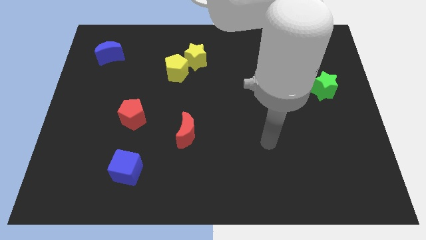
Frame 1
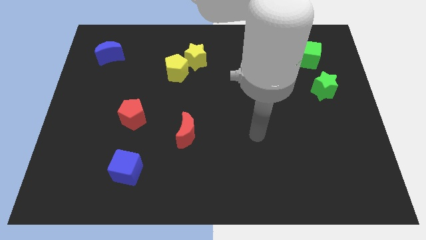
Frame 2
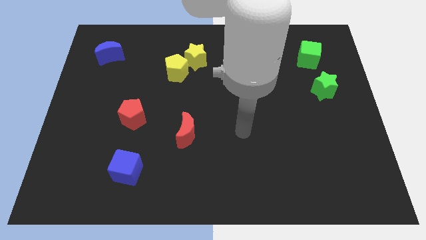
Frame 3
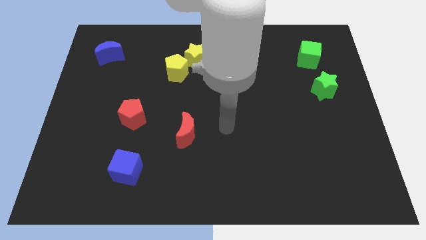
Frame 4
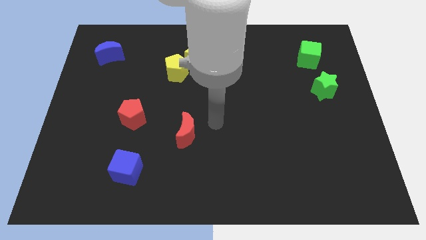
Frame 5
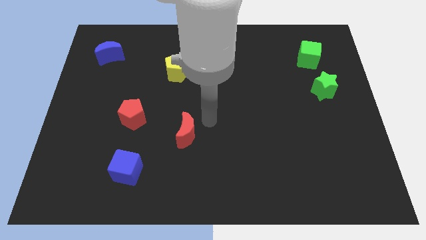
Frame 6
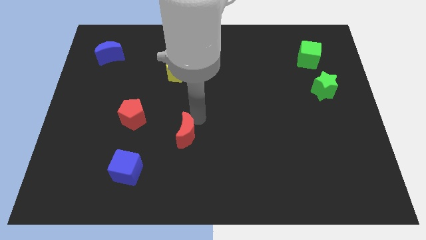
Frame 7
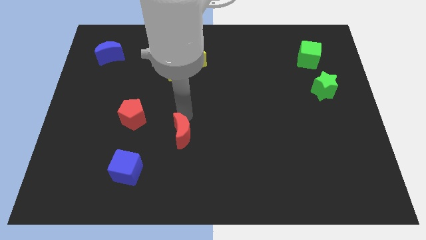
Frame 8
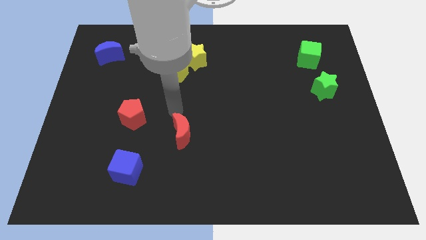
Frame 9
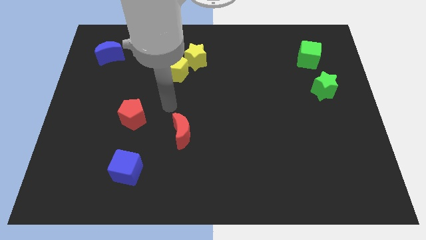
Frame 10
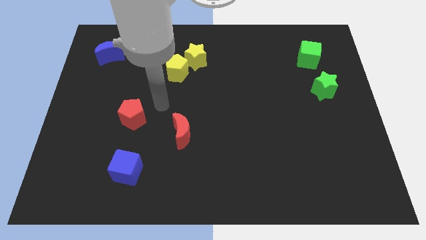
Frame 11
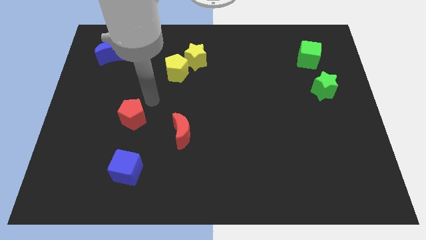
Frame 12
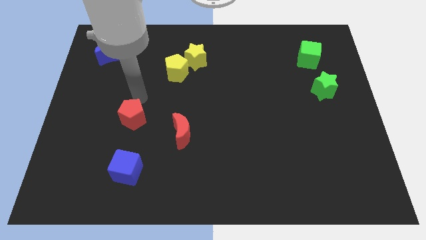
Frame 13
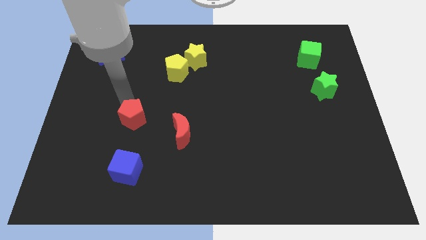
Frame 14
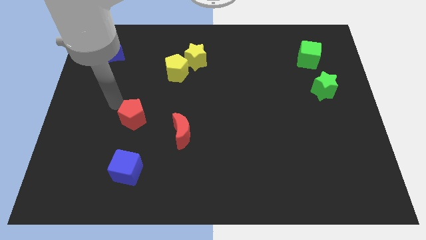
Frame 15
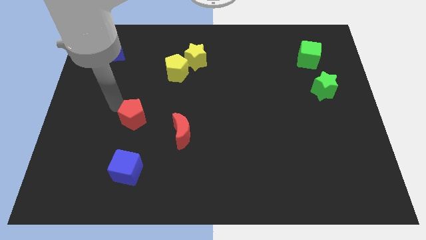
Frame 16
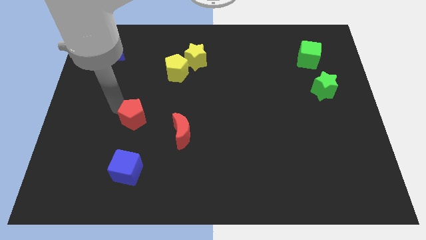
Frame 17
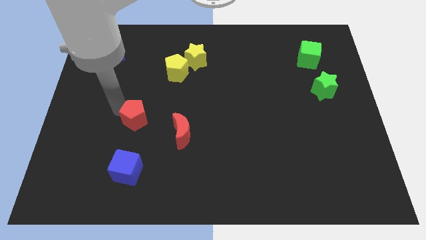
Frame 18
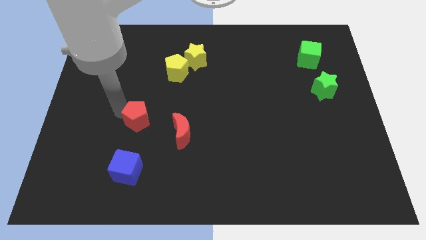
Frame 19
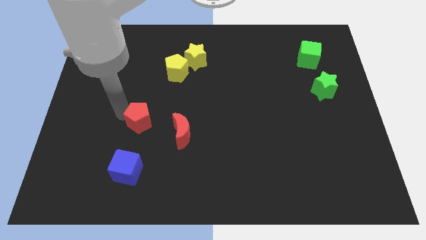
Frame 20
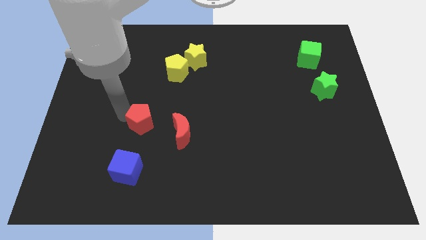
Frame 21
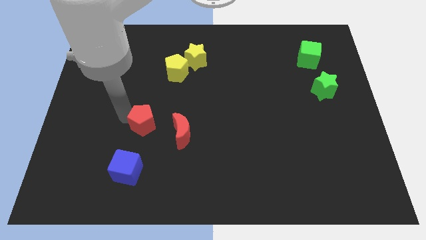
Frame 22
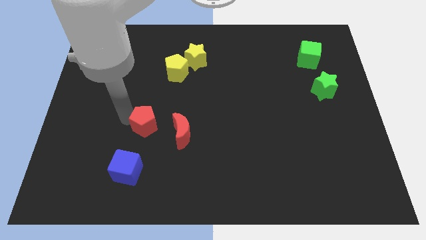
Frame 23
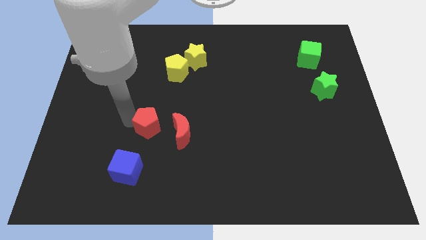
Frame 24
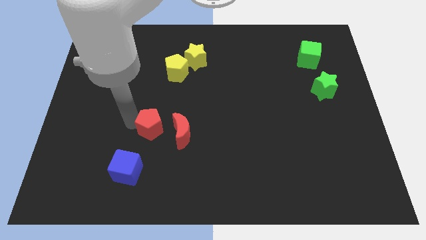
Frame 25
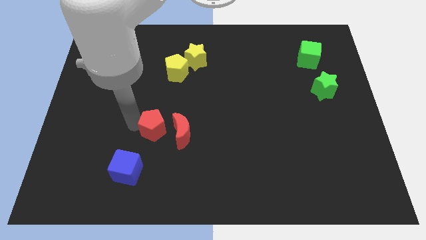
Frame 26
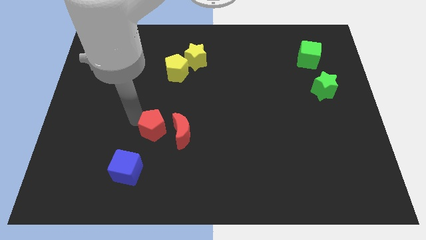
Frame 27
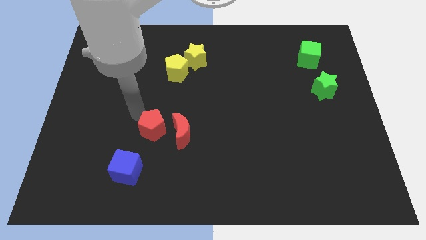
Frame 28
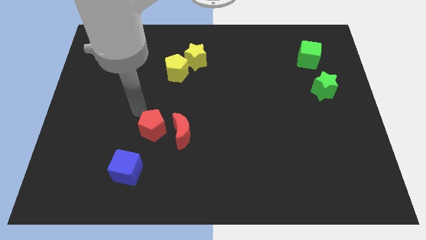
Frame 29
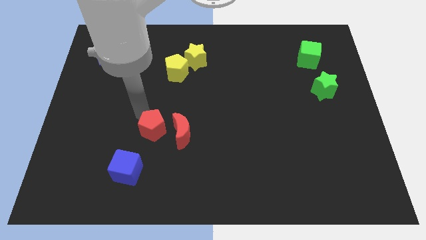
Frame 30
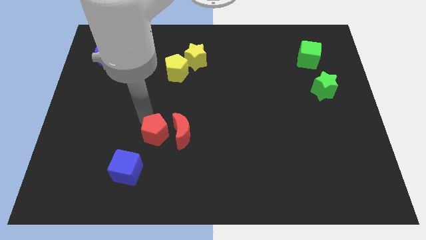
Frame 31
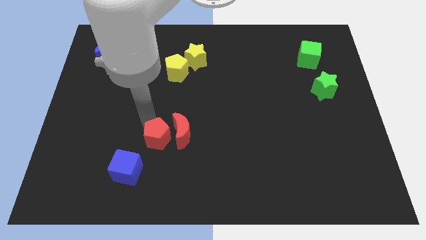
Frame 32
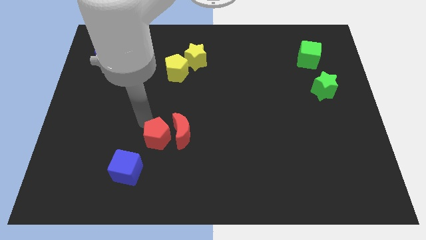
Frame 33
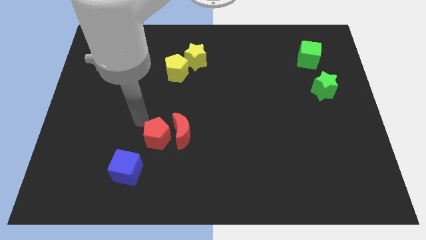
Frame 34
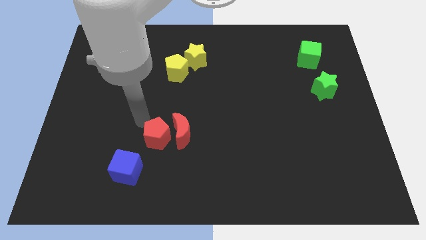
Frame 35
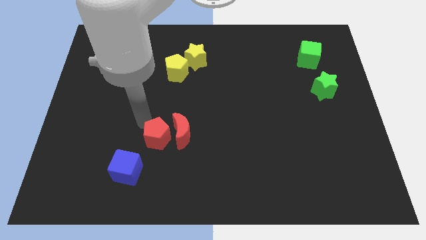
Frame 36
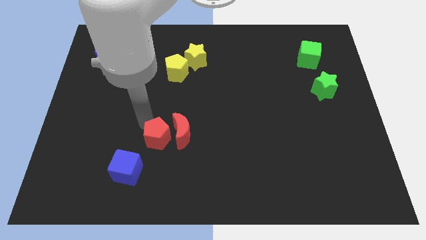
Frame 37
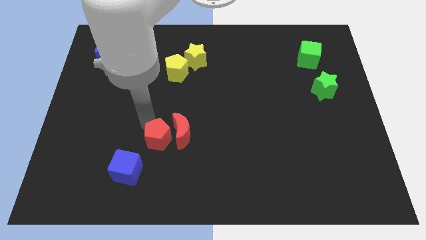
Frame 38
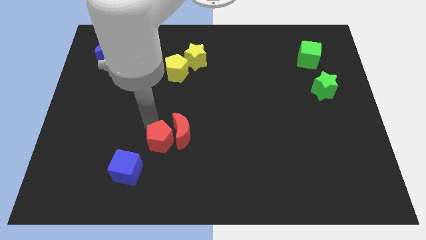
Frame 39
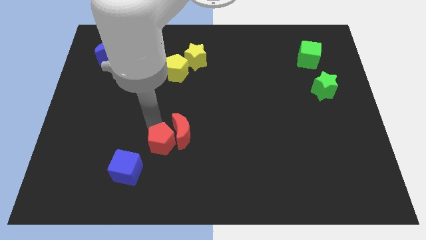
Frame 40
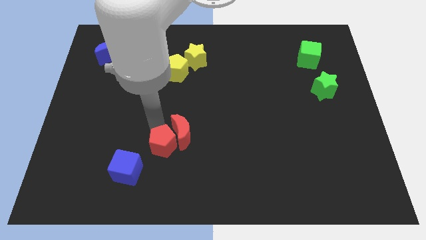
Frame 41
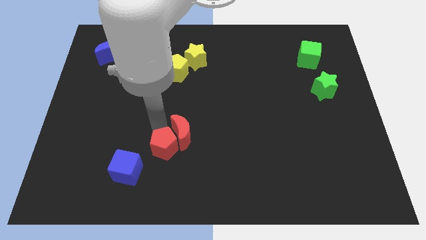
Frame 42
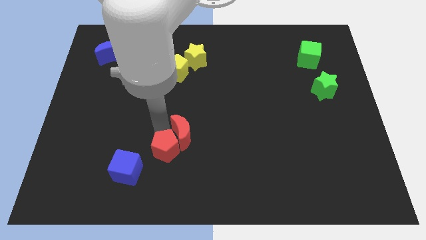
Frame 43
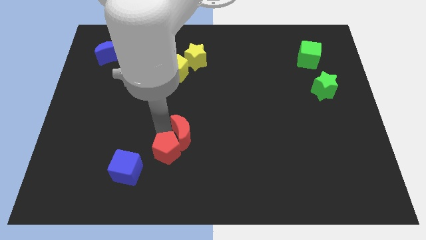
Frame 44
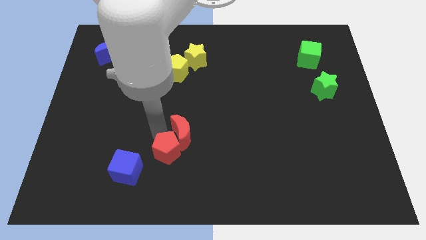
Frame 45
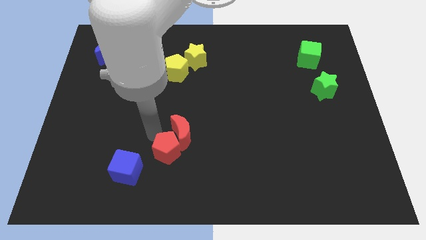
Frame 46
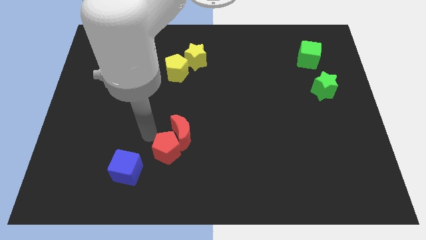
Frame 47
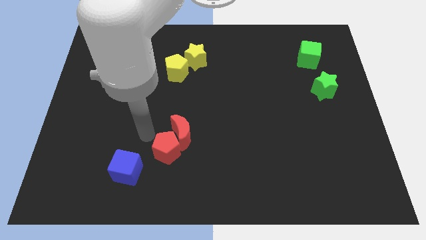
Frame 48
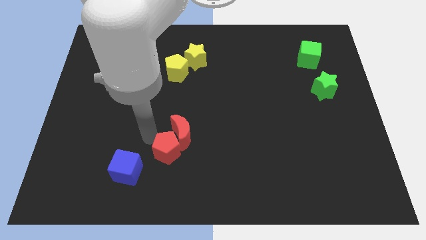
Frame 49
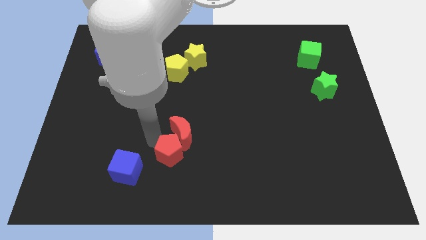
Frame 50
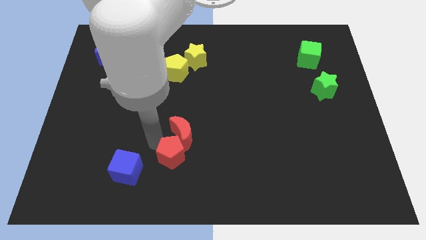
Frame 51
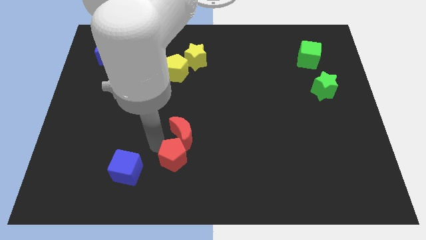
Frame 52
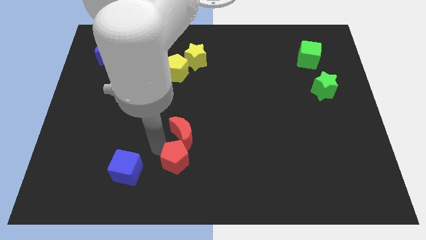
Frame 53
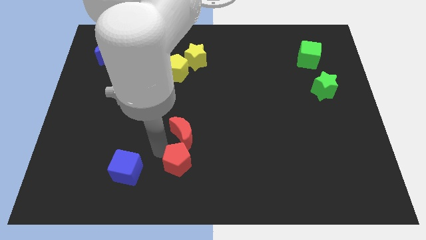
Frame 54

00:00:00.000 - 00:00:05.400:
slide the red pentagon to the bottom
